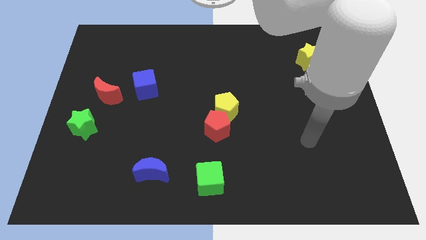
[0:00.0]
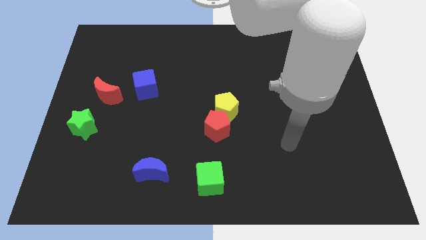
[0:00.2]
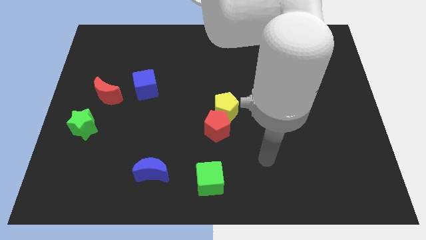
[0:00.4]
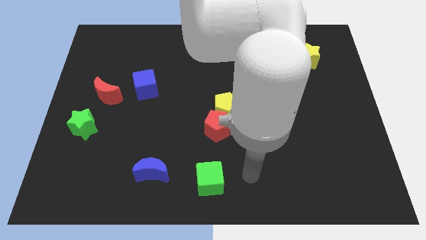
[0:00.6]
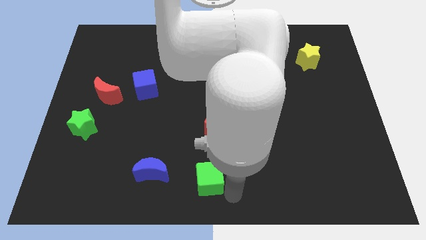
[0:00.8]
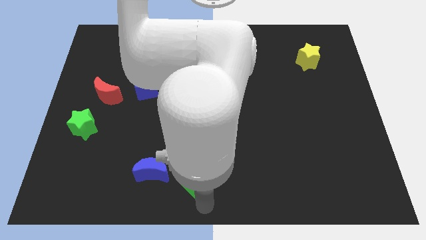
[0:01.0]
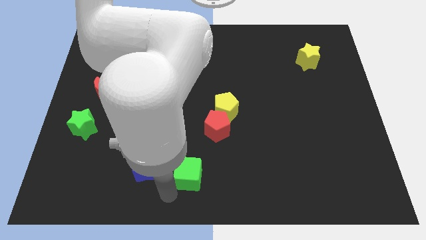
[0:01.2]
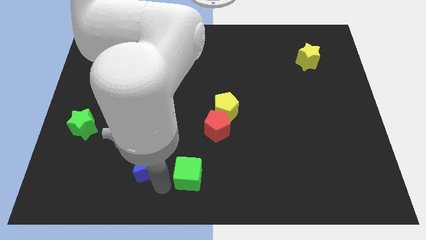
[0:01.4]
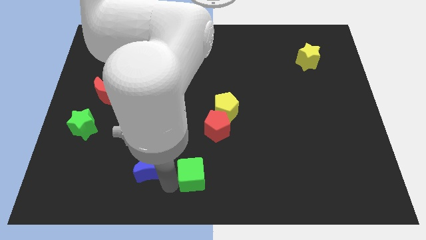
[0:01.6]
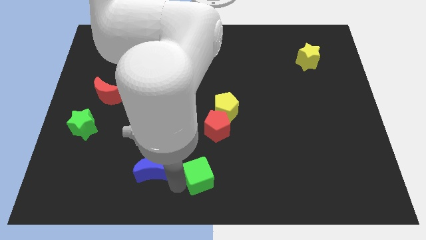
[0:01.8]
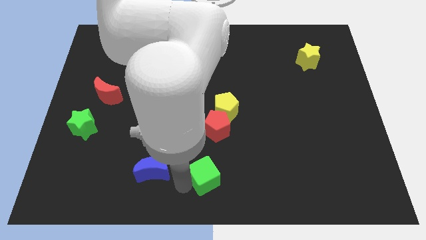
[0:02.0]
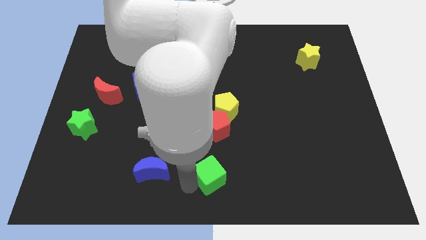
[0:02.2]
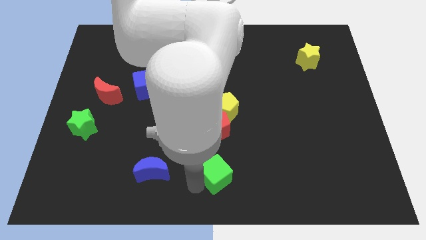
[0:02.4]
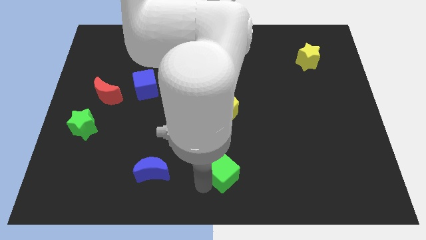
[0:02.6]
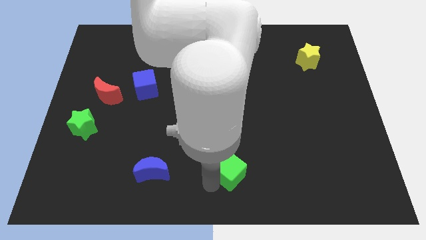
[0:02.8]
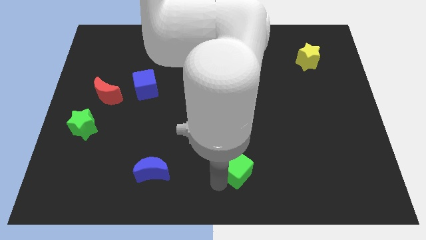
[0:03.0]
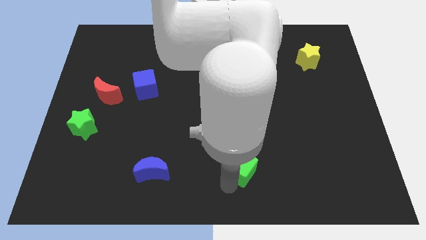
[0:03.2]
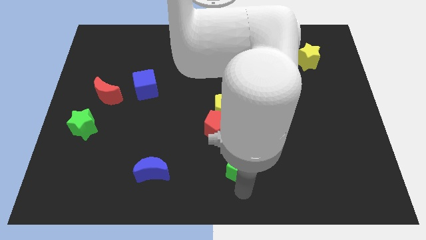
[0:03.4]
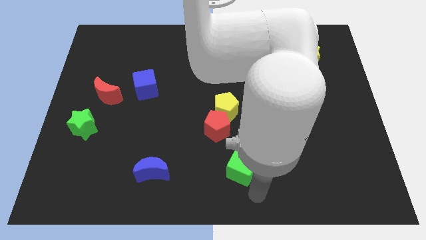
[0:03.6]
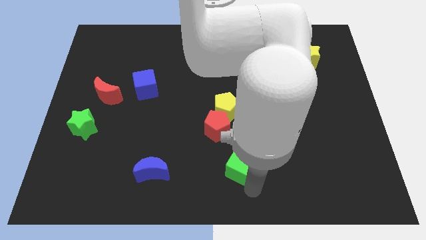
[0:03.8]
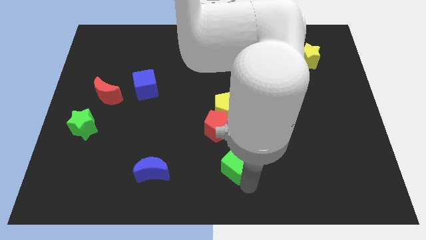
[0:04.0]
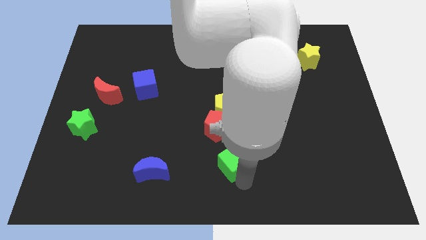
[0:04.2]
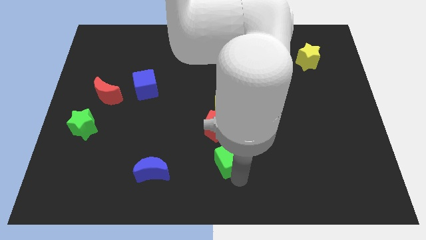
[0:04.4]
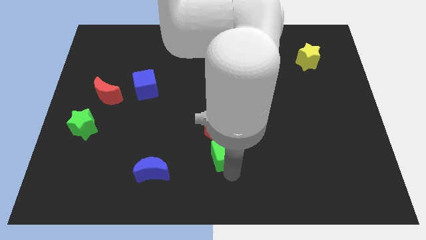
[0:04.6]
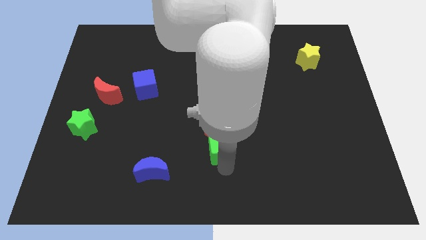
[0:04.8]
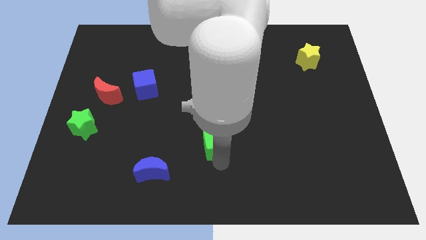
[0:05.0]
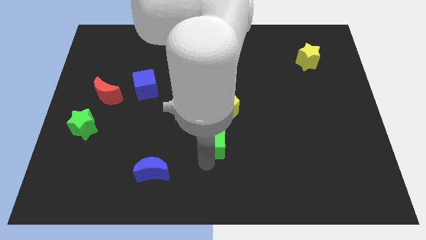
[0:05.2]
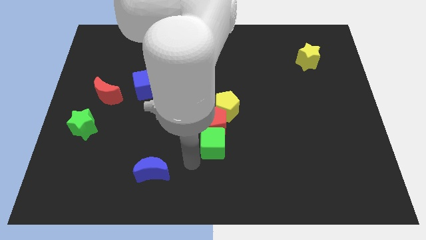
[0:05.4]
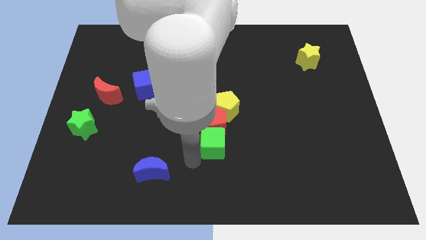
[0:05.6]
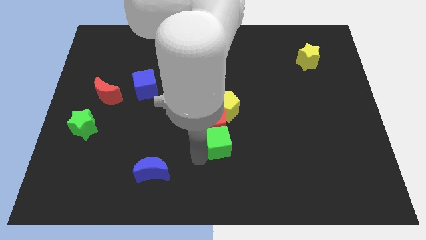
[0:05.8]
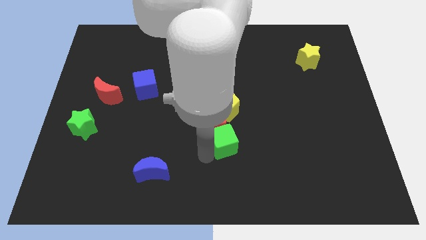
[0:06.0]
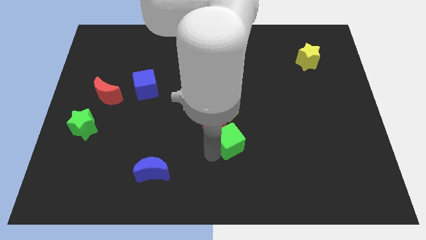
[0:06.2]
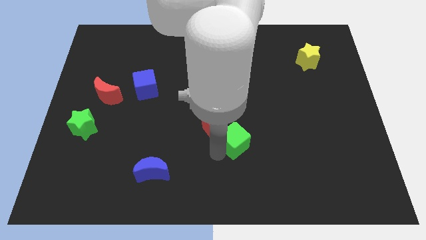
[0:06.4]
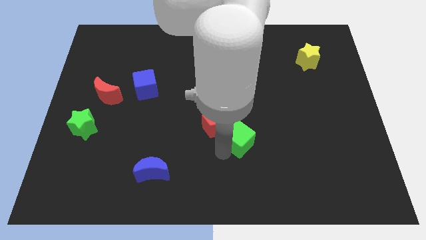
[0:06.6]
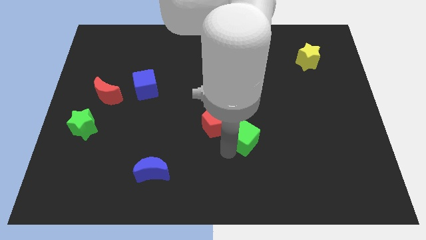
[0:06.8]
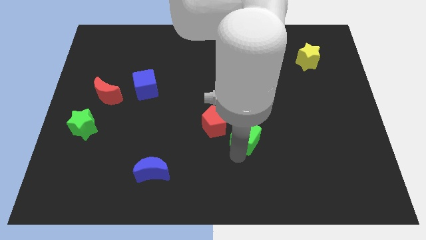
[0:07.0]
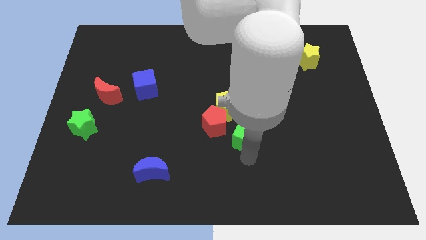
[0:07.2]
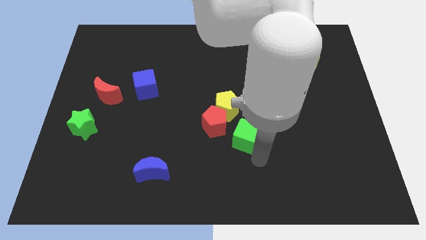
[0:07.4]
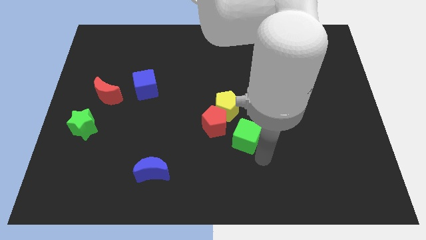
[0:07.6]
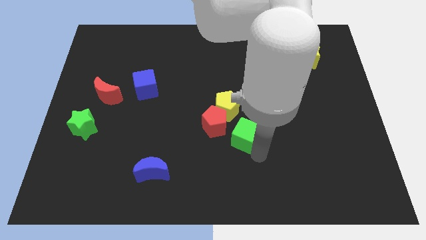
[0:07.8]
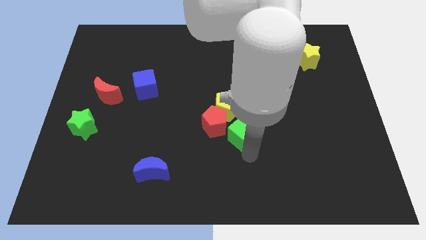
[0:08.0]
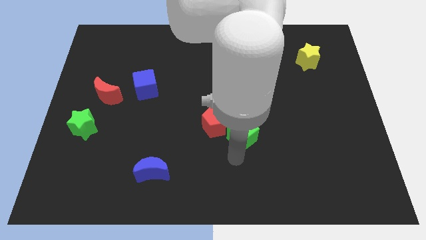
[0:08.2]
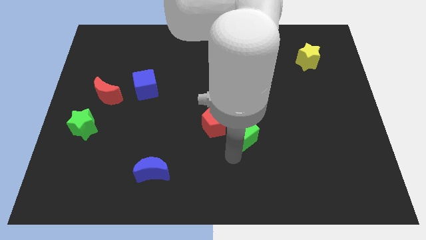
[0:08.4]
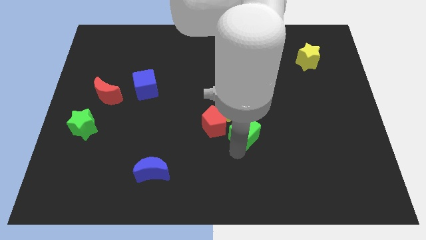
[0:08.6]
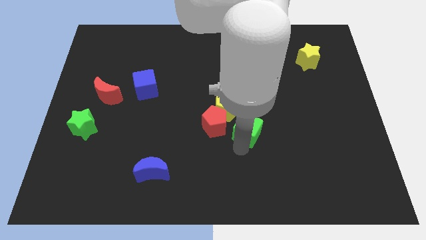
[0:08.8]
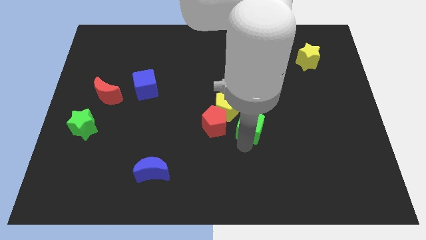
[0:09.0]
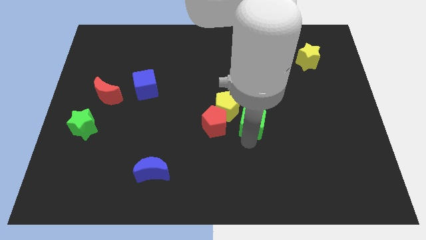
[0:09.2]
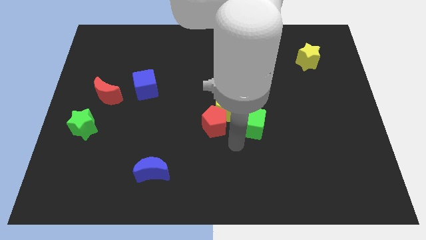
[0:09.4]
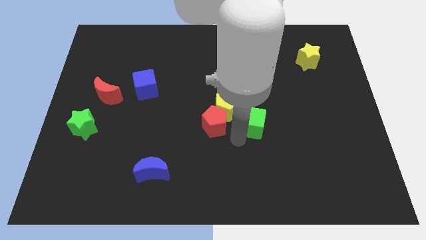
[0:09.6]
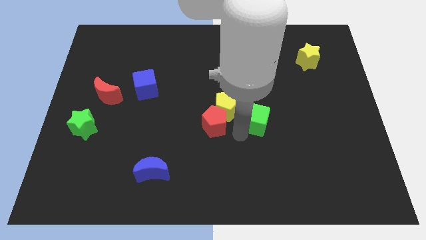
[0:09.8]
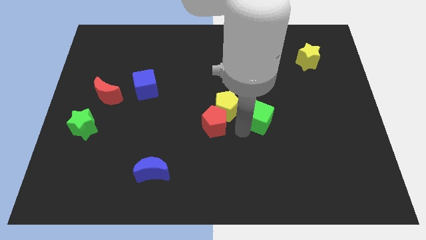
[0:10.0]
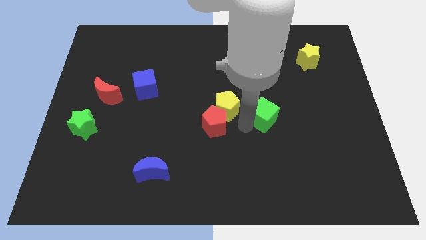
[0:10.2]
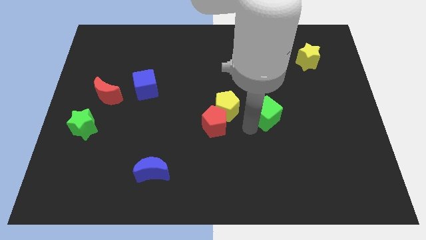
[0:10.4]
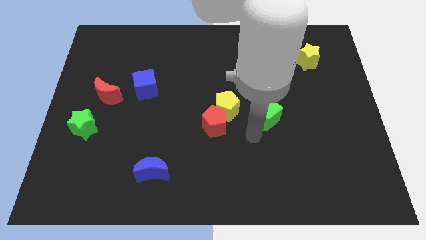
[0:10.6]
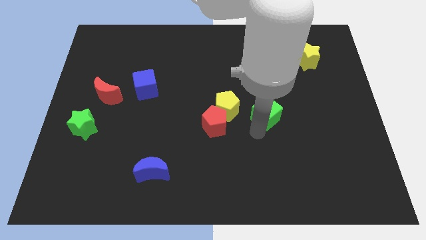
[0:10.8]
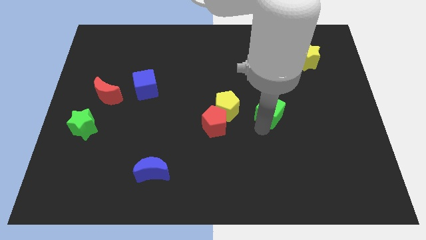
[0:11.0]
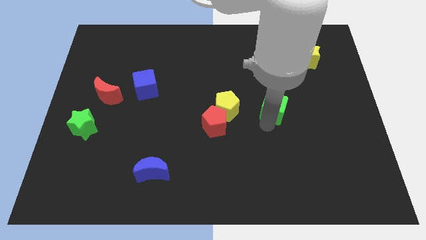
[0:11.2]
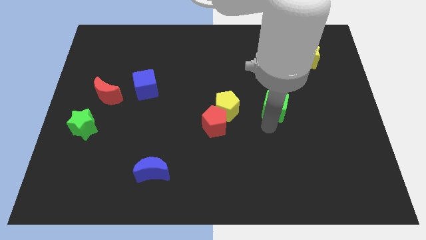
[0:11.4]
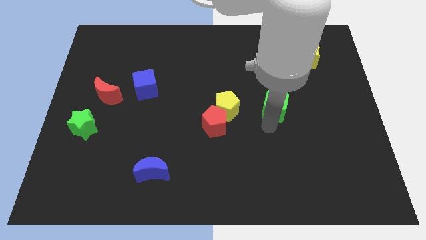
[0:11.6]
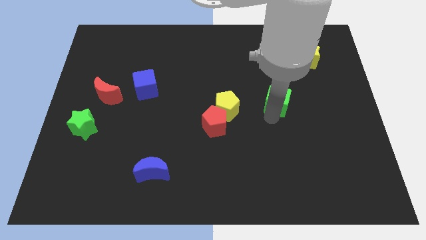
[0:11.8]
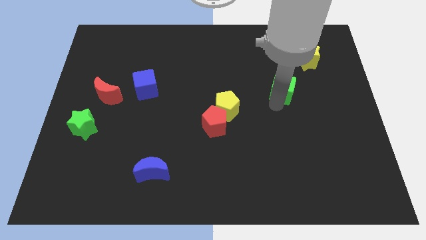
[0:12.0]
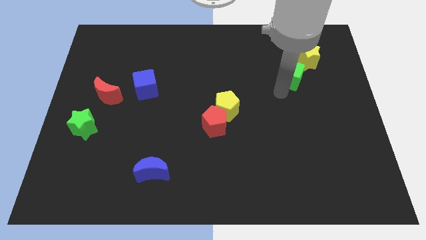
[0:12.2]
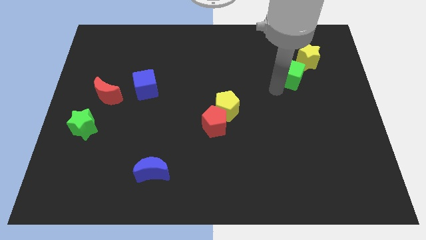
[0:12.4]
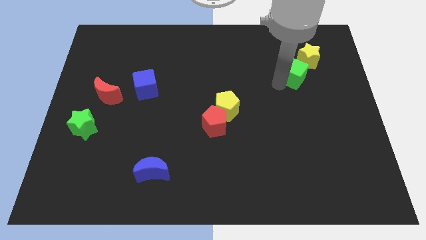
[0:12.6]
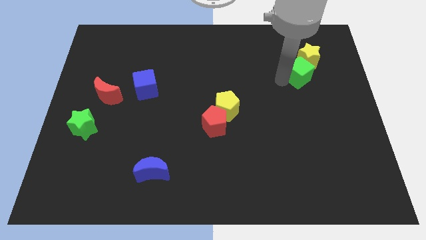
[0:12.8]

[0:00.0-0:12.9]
slide the green cube towards the yellow star

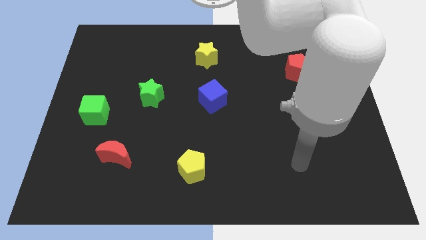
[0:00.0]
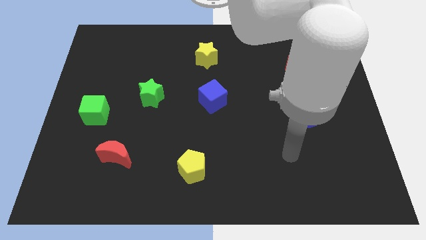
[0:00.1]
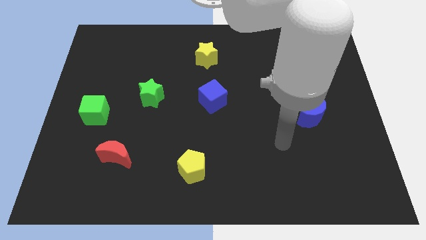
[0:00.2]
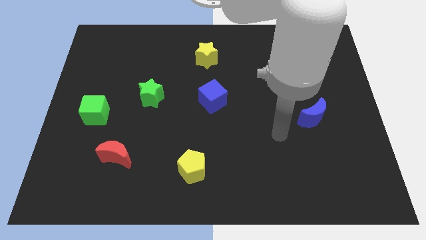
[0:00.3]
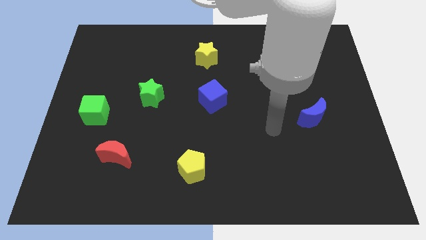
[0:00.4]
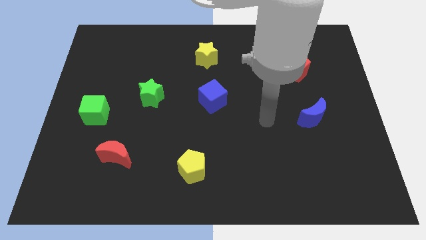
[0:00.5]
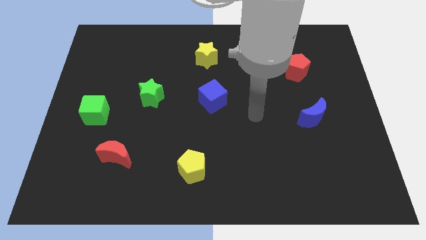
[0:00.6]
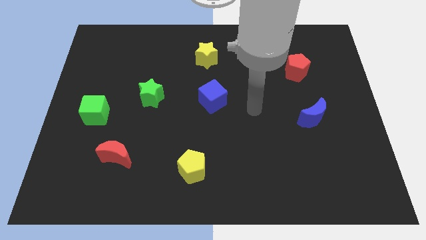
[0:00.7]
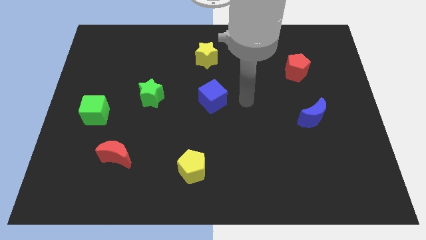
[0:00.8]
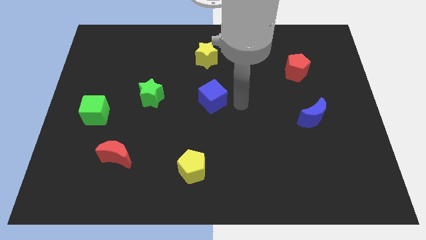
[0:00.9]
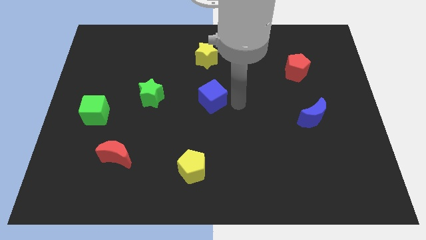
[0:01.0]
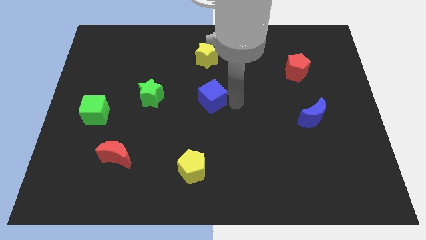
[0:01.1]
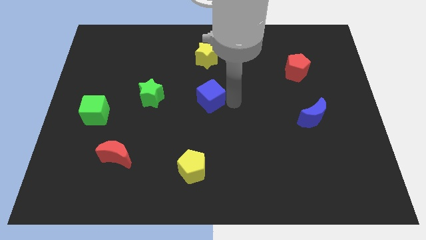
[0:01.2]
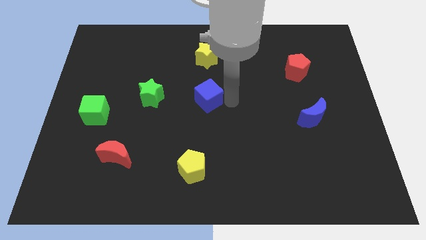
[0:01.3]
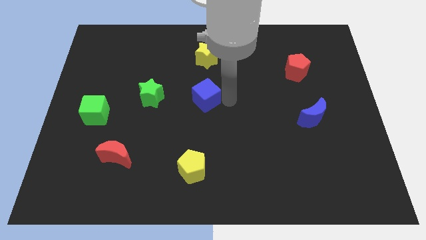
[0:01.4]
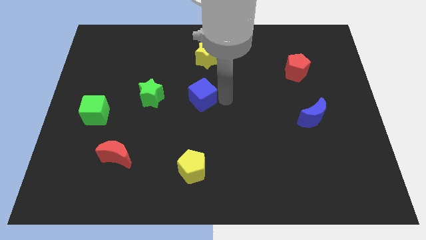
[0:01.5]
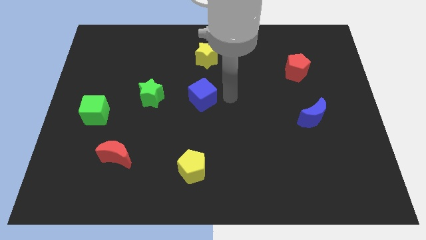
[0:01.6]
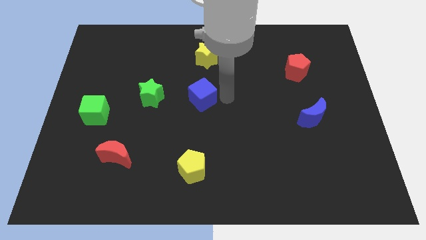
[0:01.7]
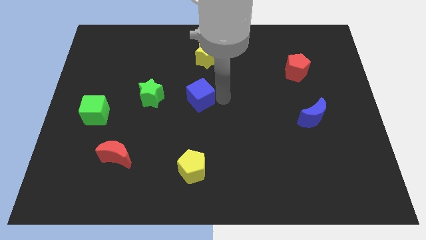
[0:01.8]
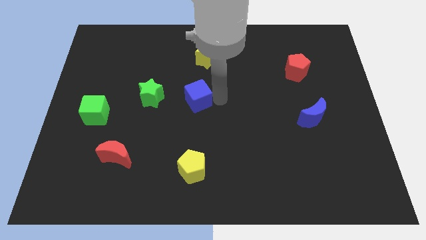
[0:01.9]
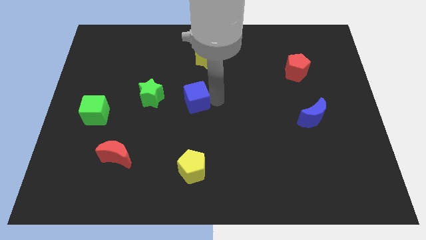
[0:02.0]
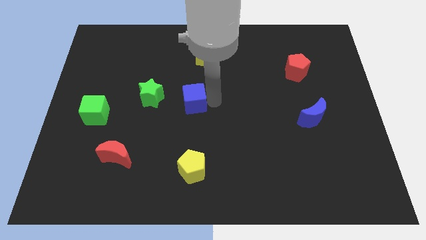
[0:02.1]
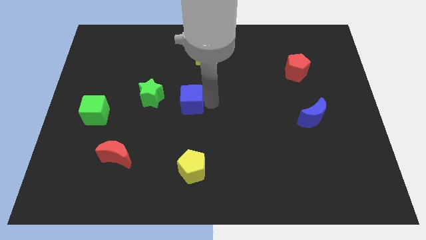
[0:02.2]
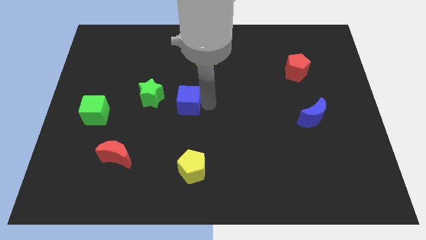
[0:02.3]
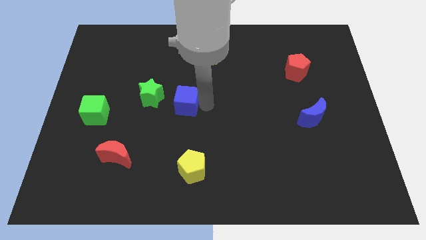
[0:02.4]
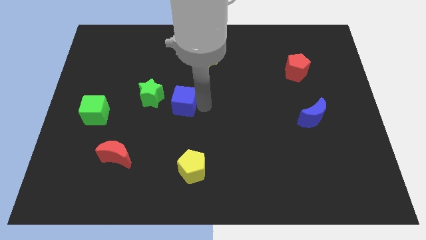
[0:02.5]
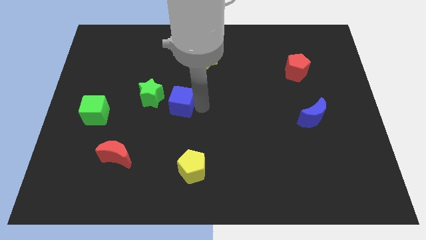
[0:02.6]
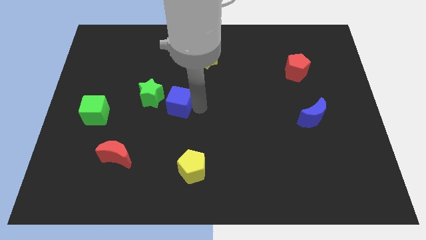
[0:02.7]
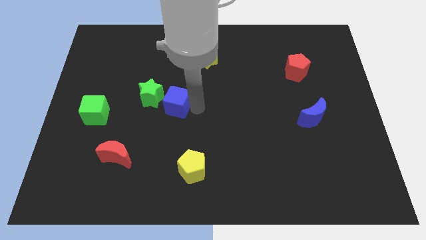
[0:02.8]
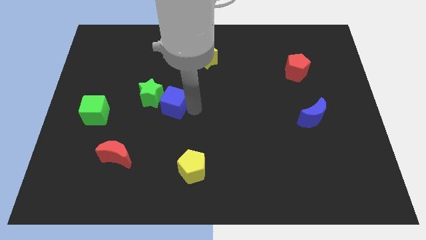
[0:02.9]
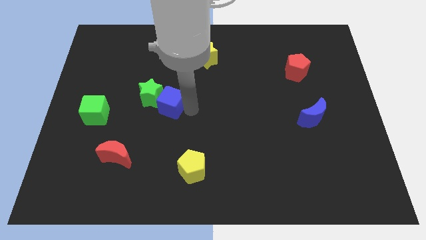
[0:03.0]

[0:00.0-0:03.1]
push the blue cube to the green star
